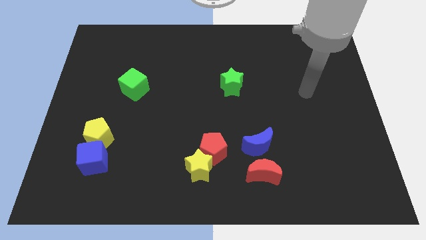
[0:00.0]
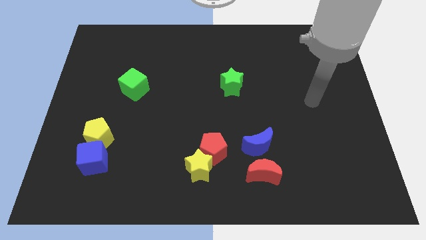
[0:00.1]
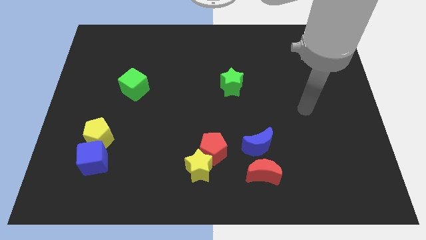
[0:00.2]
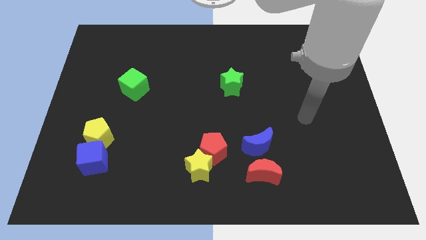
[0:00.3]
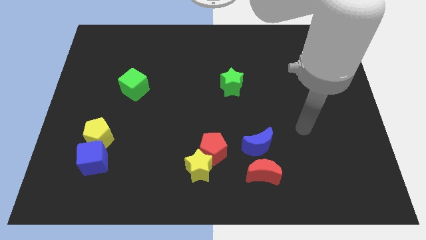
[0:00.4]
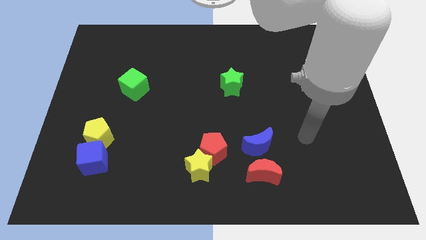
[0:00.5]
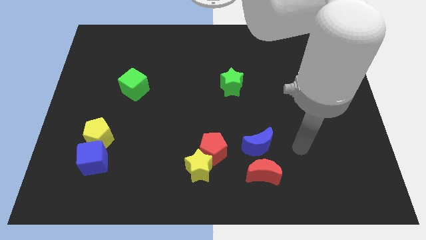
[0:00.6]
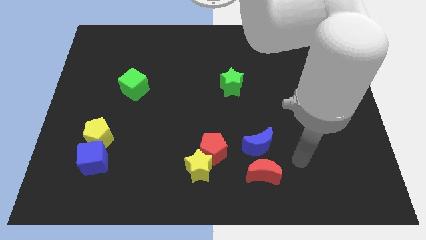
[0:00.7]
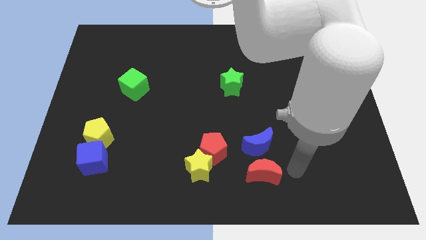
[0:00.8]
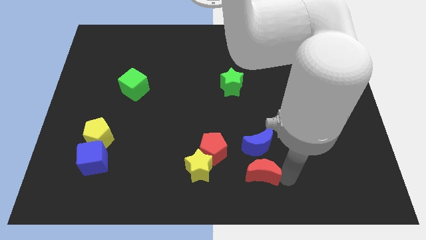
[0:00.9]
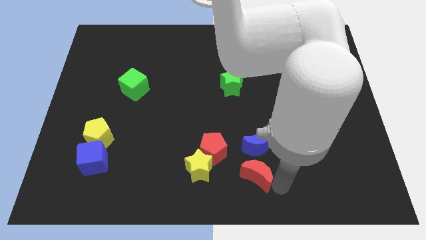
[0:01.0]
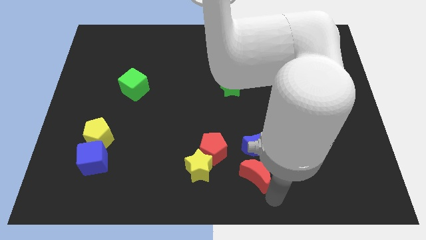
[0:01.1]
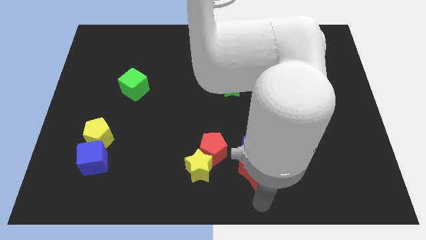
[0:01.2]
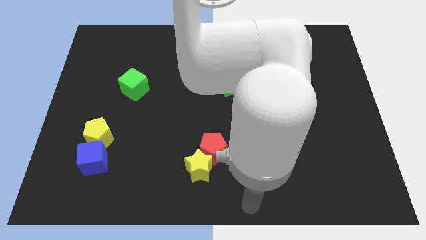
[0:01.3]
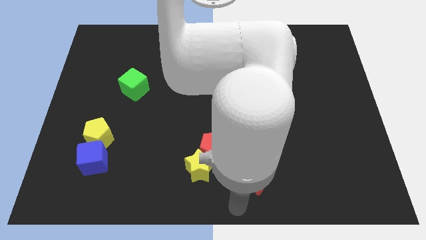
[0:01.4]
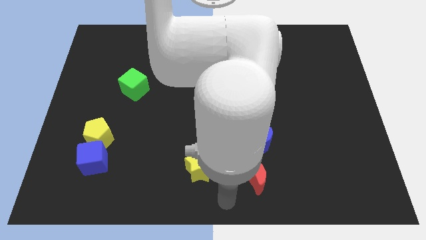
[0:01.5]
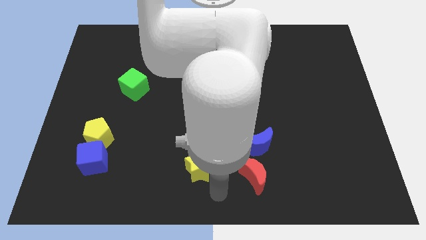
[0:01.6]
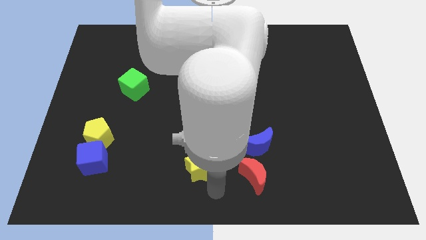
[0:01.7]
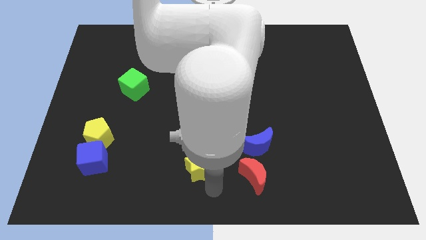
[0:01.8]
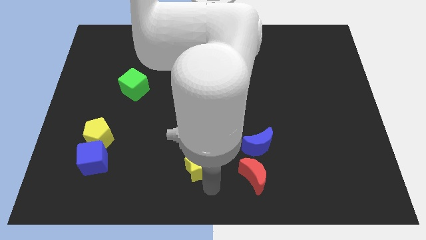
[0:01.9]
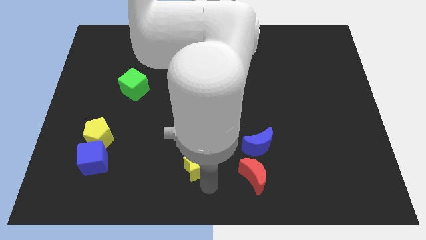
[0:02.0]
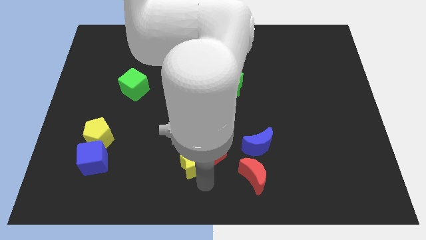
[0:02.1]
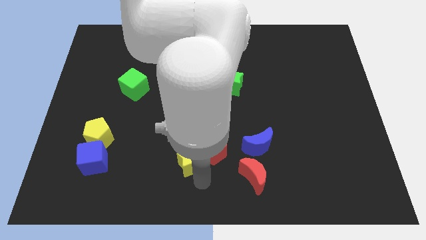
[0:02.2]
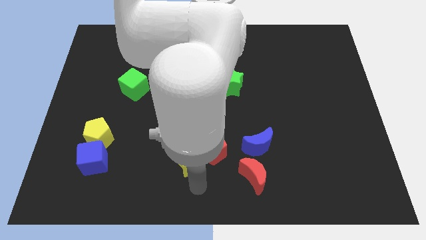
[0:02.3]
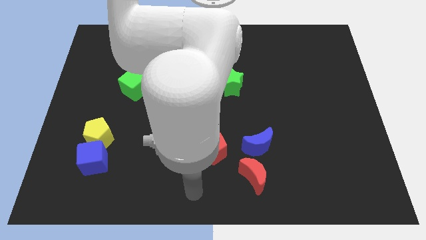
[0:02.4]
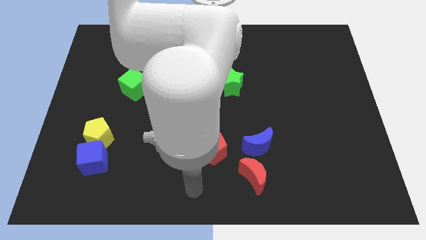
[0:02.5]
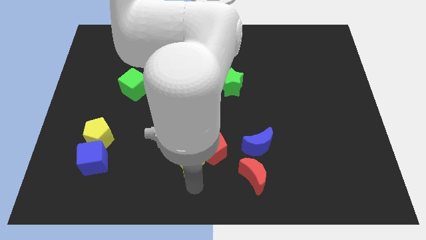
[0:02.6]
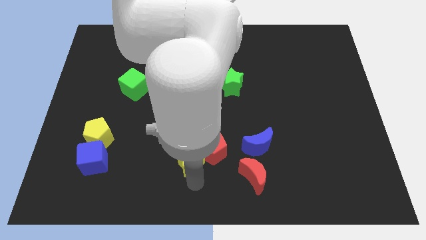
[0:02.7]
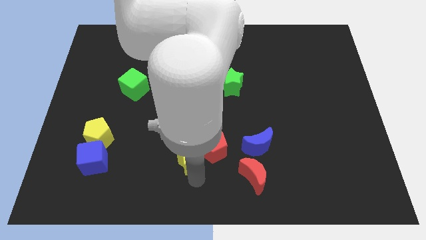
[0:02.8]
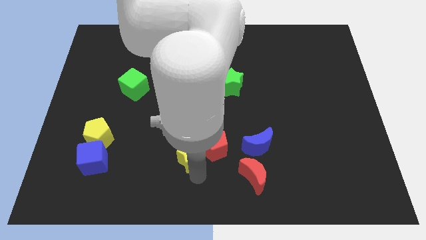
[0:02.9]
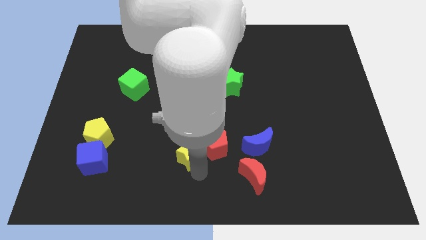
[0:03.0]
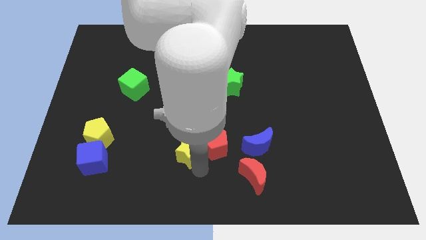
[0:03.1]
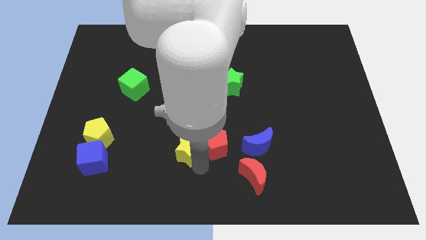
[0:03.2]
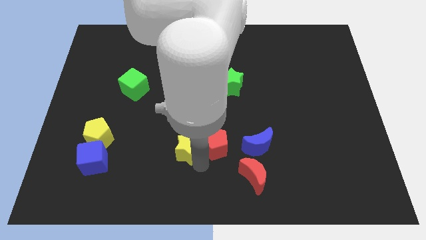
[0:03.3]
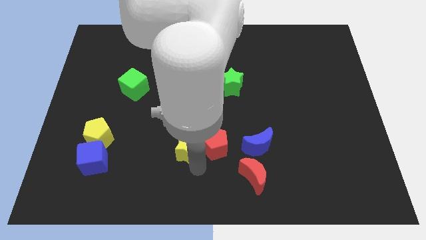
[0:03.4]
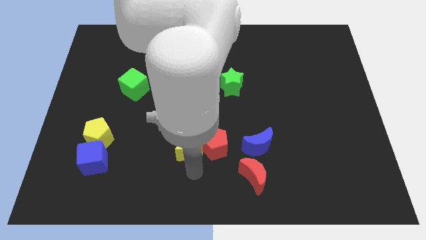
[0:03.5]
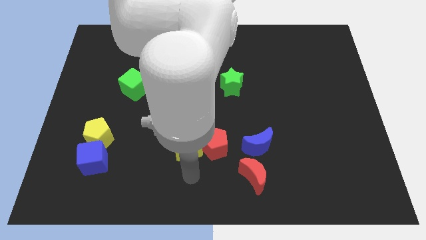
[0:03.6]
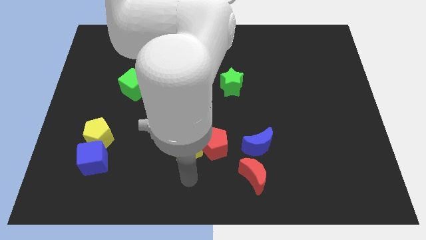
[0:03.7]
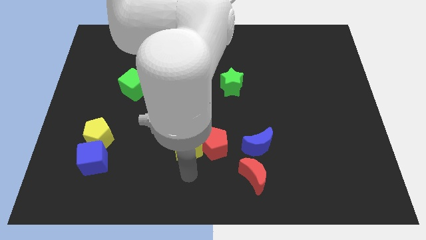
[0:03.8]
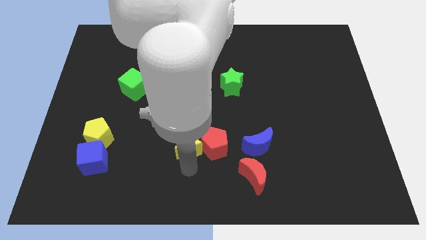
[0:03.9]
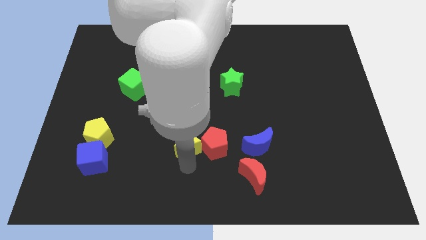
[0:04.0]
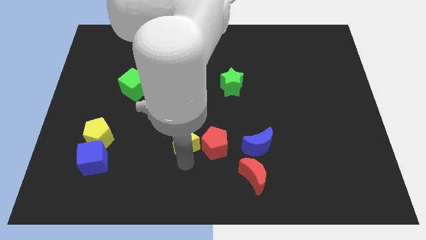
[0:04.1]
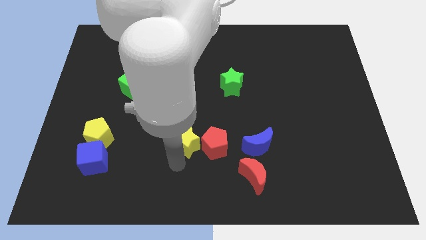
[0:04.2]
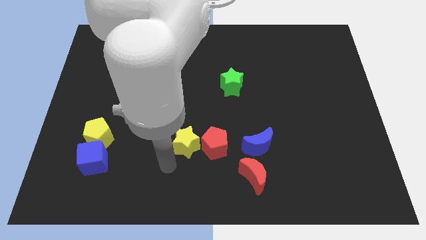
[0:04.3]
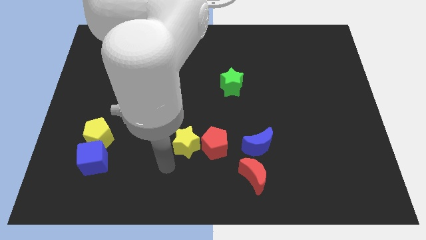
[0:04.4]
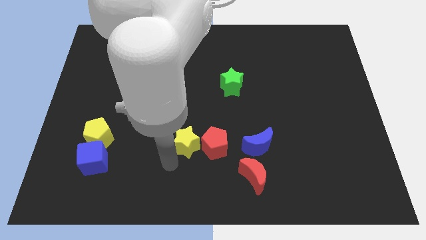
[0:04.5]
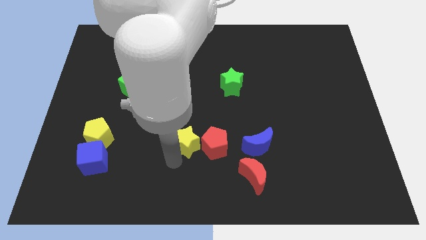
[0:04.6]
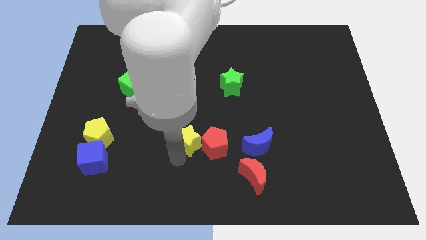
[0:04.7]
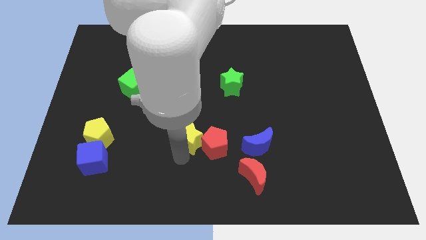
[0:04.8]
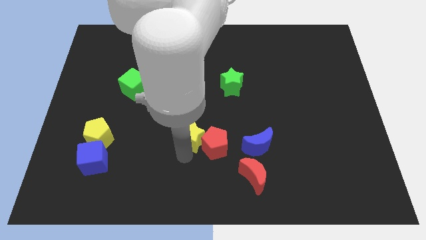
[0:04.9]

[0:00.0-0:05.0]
slide the yellow star up a little bit

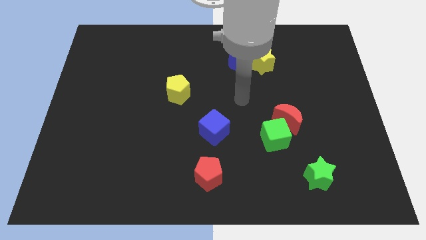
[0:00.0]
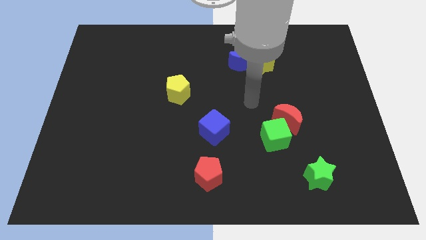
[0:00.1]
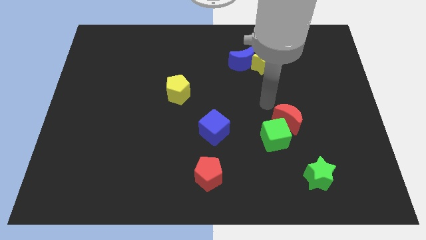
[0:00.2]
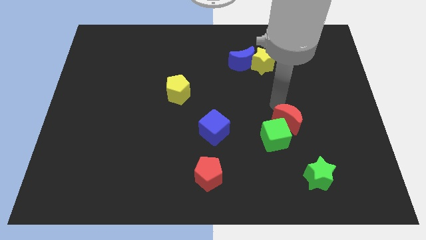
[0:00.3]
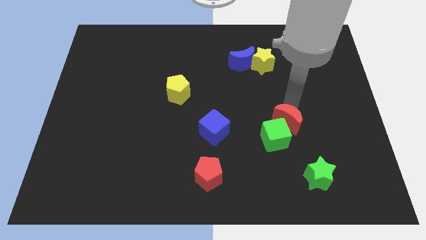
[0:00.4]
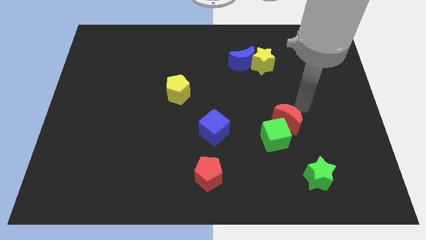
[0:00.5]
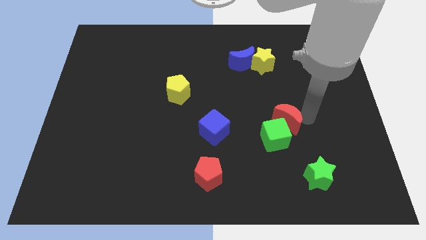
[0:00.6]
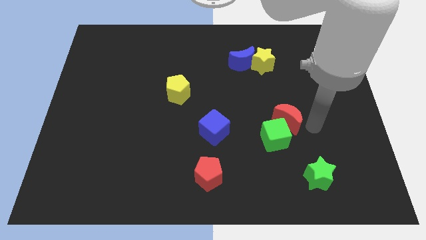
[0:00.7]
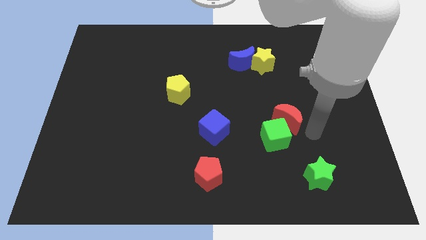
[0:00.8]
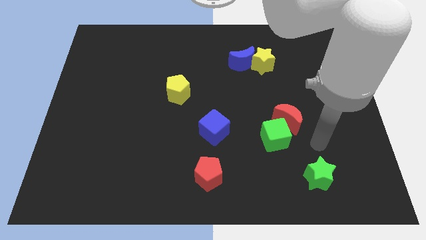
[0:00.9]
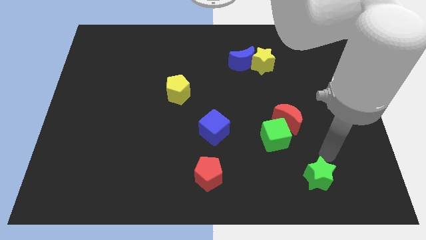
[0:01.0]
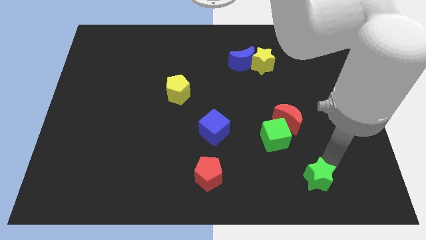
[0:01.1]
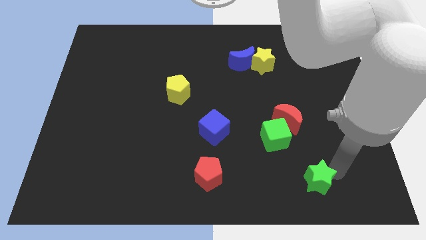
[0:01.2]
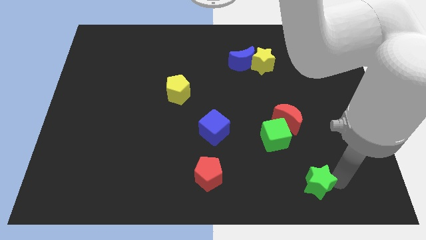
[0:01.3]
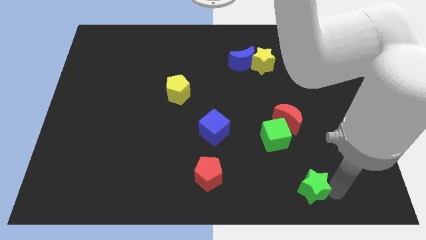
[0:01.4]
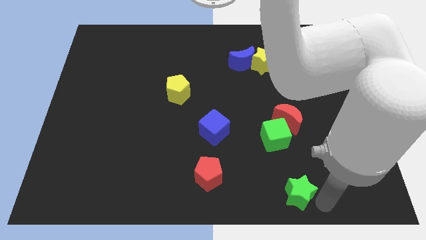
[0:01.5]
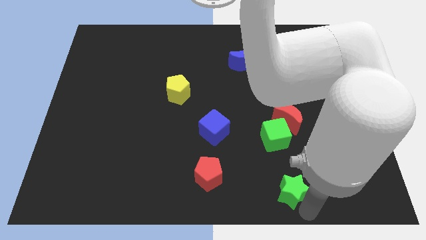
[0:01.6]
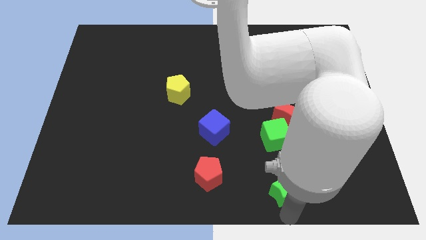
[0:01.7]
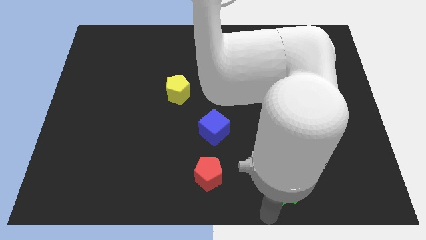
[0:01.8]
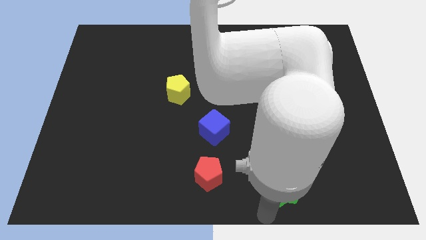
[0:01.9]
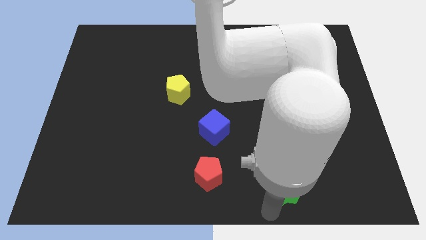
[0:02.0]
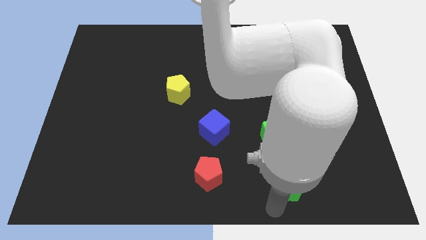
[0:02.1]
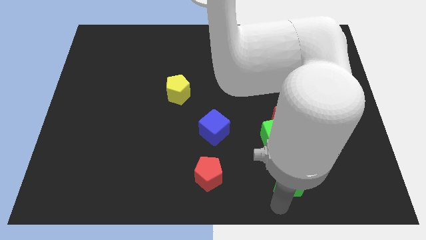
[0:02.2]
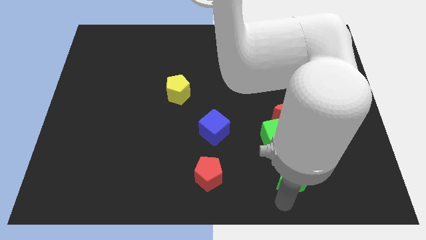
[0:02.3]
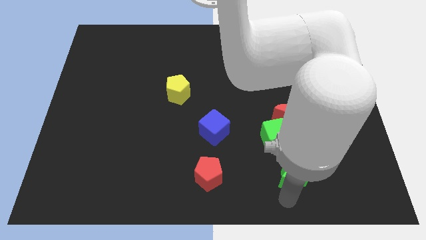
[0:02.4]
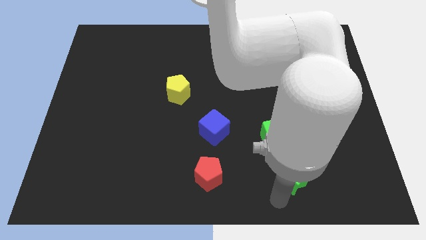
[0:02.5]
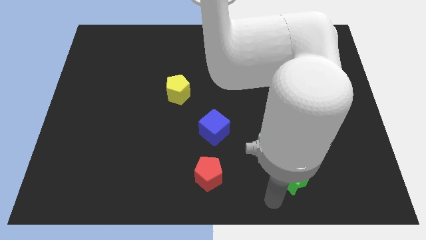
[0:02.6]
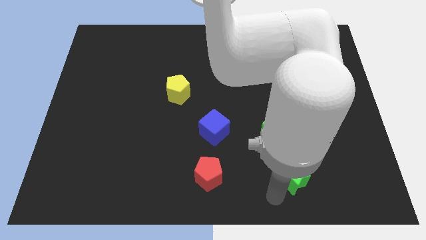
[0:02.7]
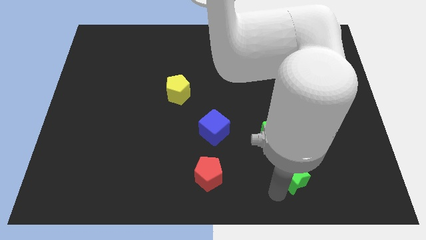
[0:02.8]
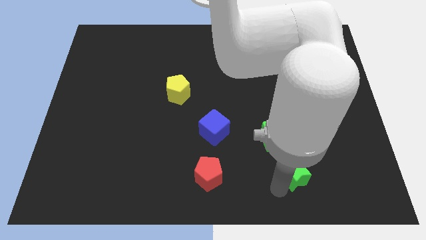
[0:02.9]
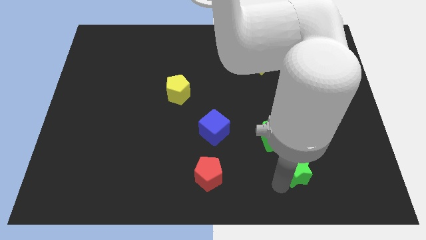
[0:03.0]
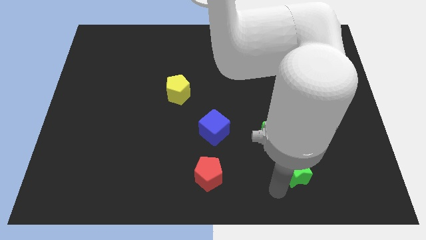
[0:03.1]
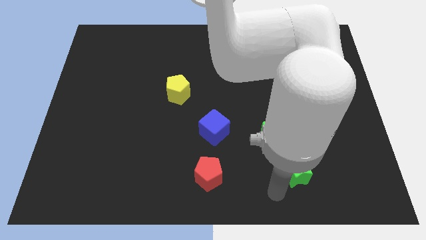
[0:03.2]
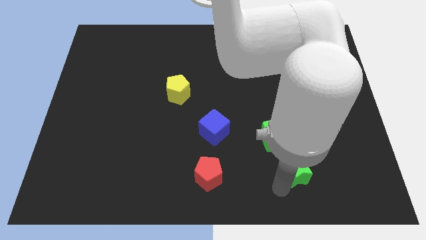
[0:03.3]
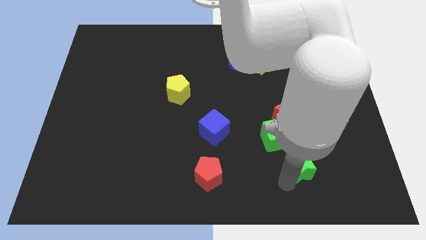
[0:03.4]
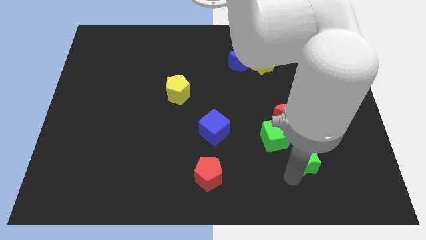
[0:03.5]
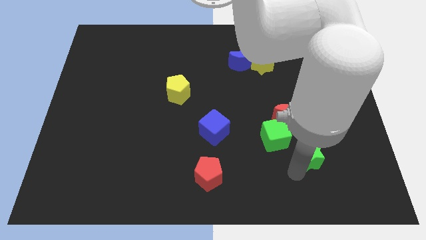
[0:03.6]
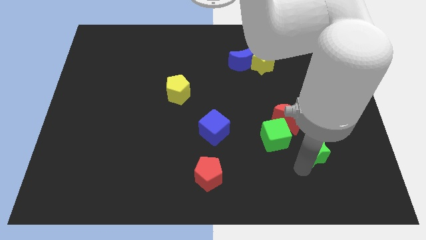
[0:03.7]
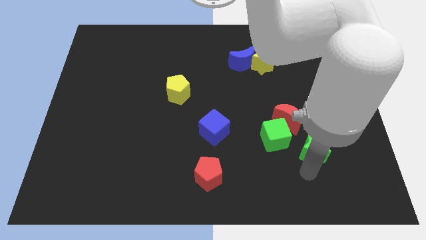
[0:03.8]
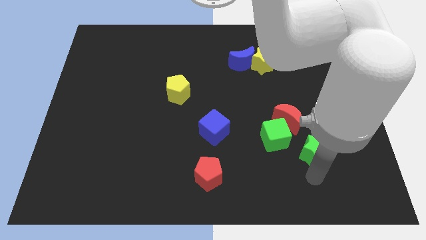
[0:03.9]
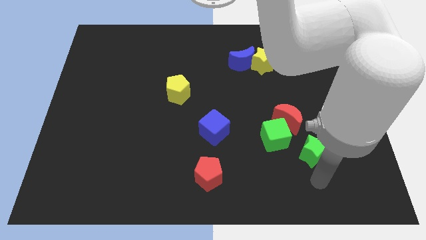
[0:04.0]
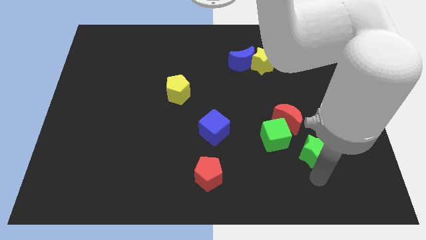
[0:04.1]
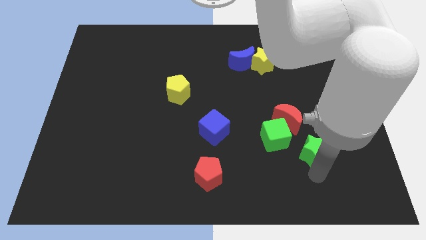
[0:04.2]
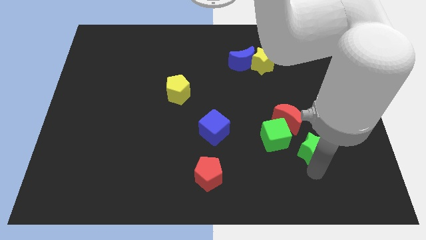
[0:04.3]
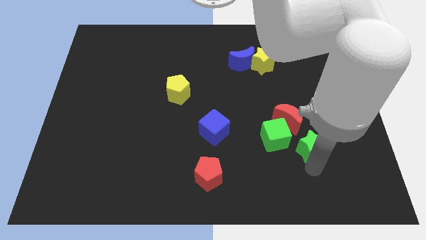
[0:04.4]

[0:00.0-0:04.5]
slide the green star somewhat up
